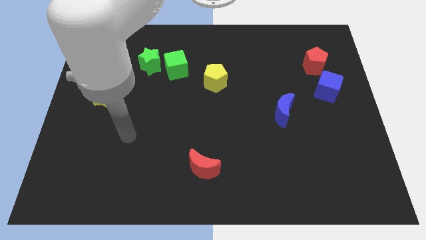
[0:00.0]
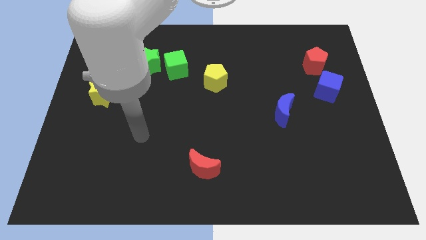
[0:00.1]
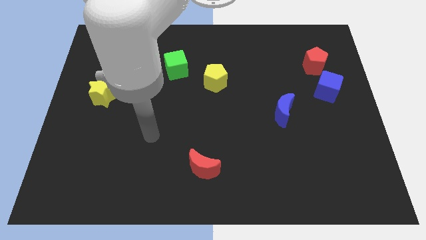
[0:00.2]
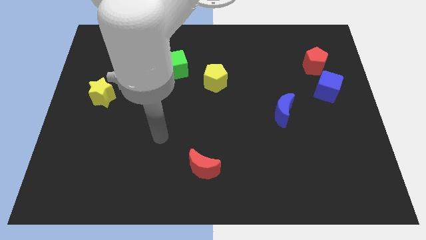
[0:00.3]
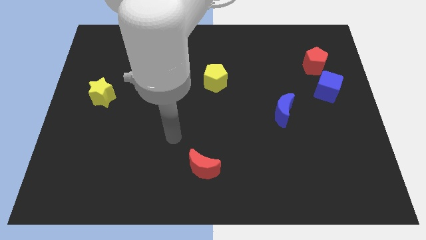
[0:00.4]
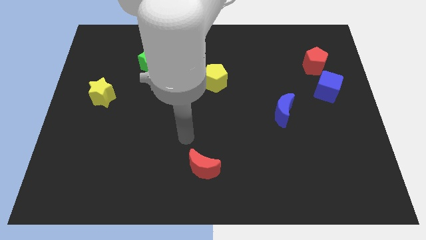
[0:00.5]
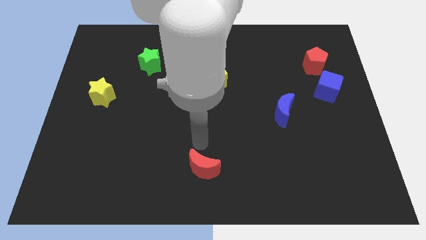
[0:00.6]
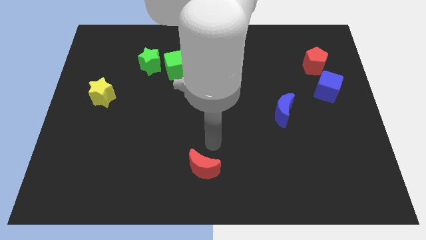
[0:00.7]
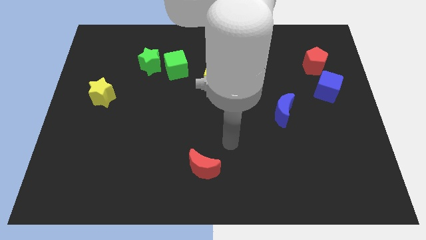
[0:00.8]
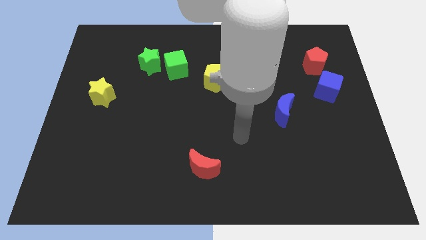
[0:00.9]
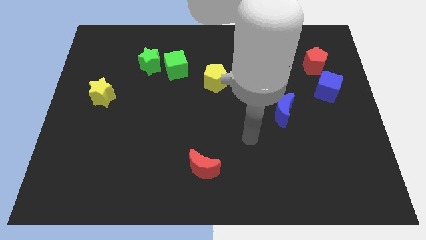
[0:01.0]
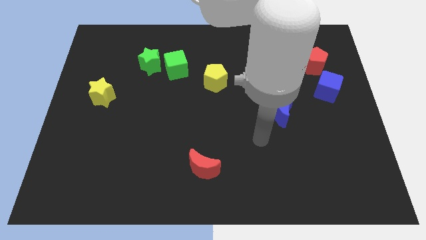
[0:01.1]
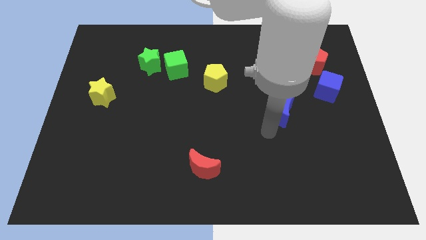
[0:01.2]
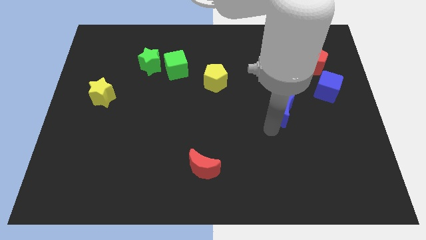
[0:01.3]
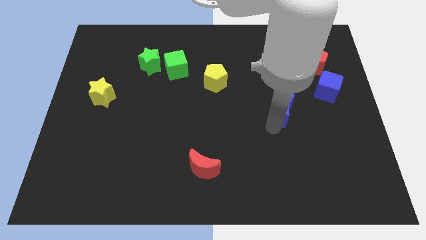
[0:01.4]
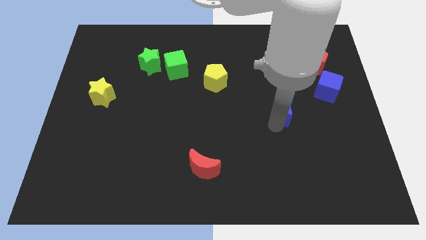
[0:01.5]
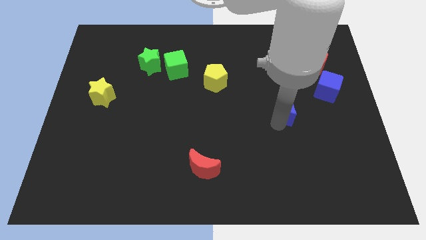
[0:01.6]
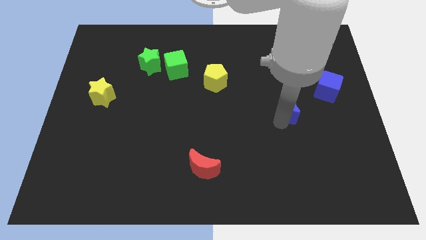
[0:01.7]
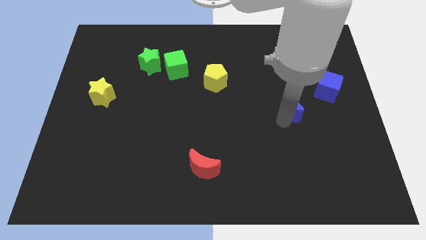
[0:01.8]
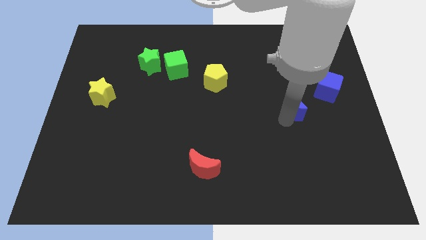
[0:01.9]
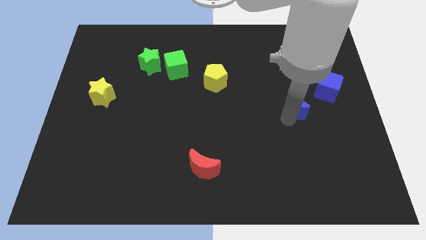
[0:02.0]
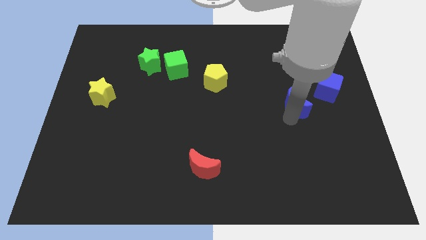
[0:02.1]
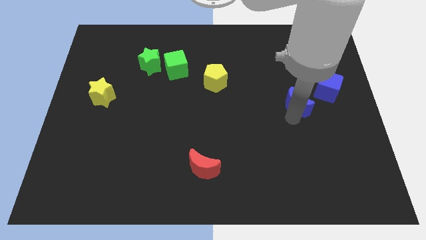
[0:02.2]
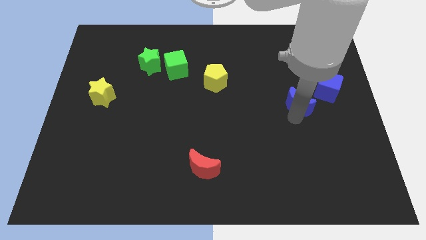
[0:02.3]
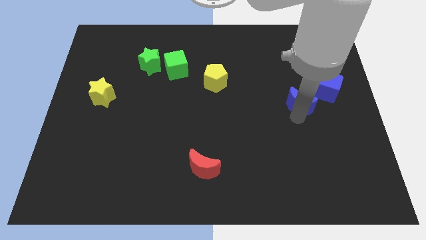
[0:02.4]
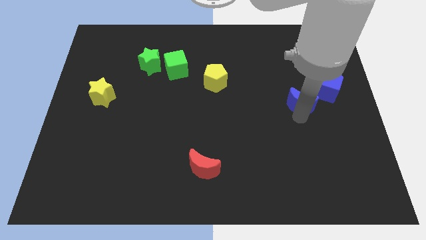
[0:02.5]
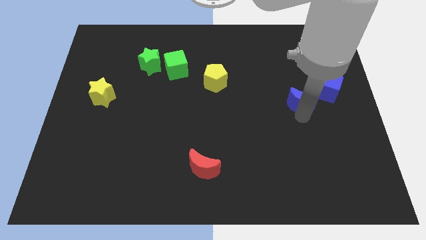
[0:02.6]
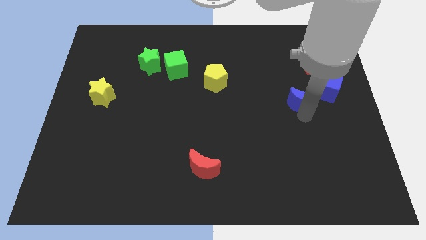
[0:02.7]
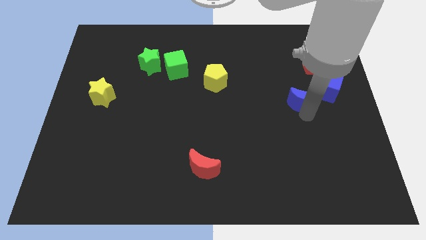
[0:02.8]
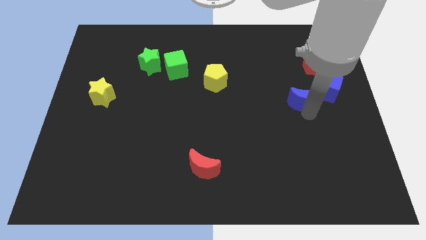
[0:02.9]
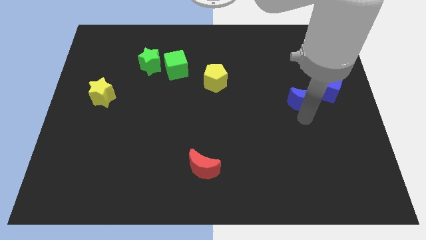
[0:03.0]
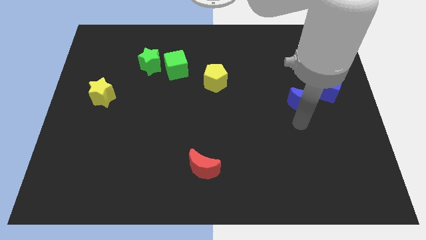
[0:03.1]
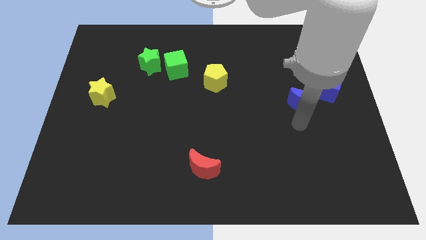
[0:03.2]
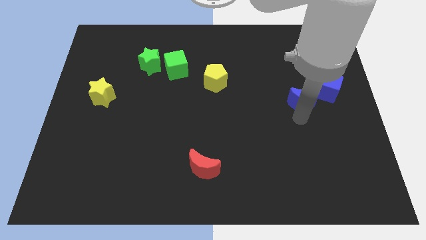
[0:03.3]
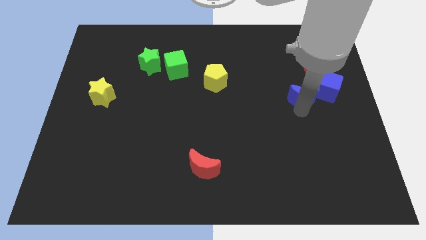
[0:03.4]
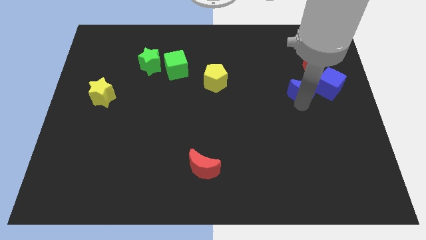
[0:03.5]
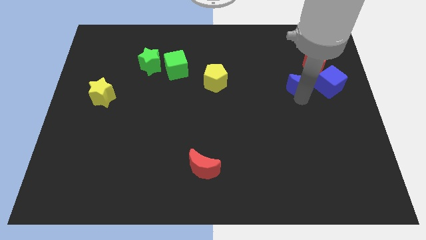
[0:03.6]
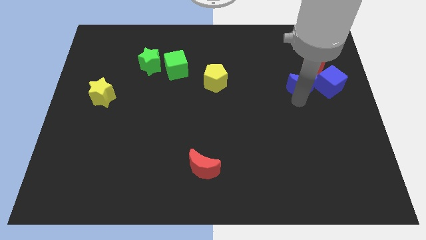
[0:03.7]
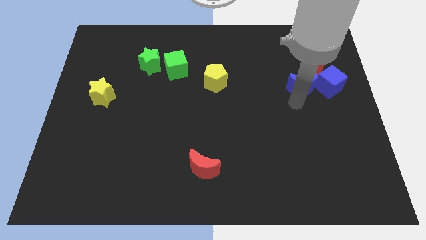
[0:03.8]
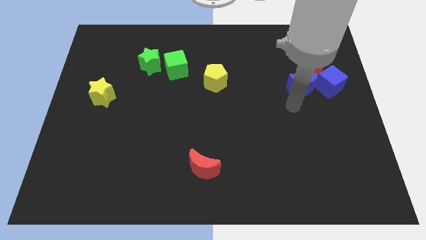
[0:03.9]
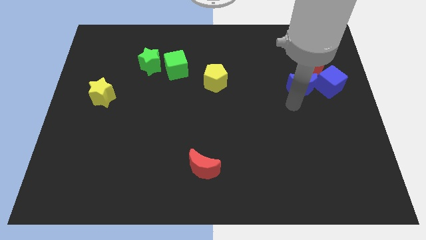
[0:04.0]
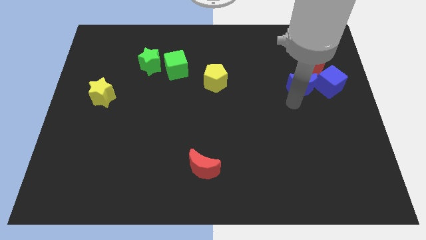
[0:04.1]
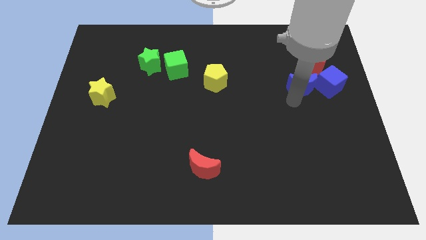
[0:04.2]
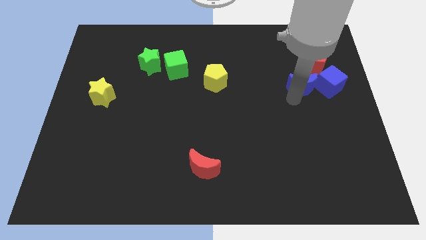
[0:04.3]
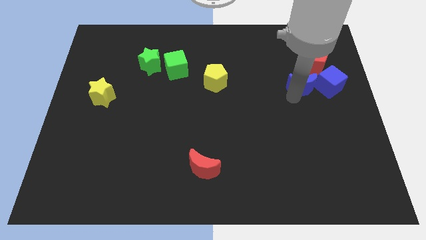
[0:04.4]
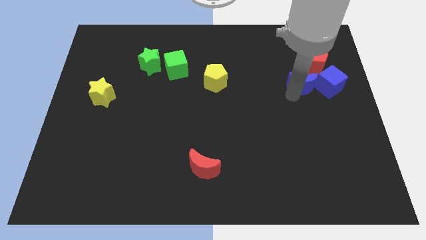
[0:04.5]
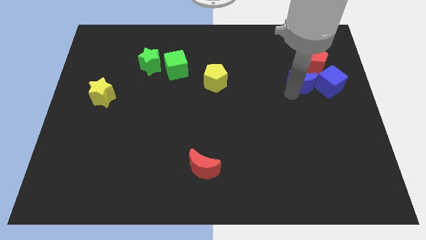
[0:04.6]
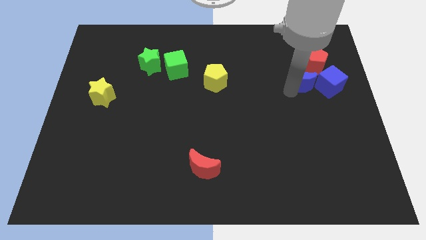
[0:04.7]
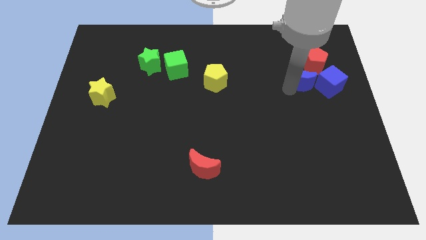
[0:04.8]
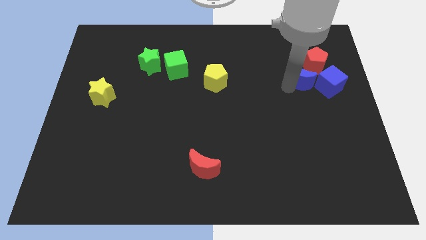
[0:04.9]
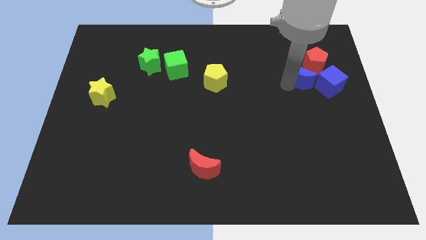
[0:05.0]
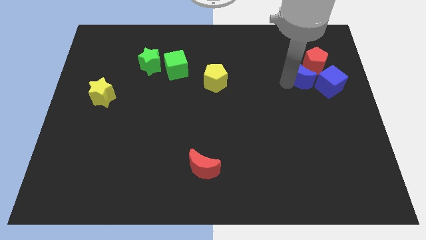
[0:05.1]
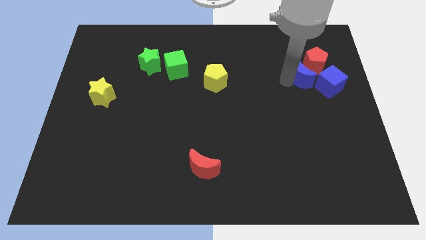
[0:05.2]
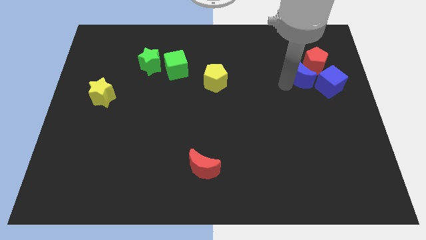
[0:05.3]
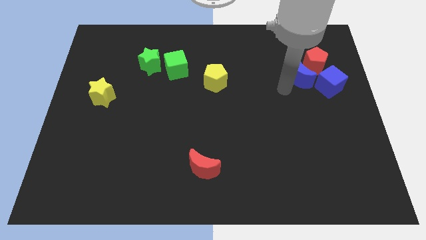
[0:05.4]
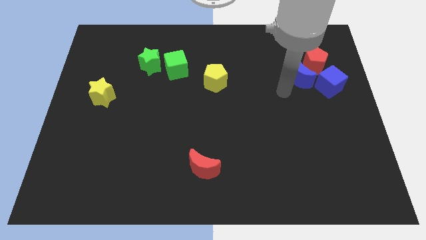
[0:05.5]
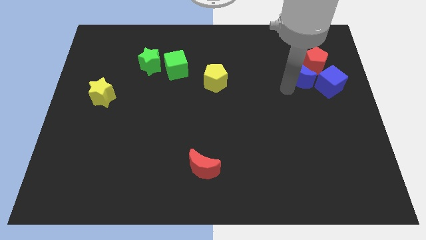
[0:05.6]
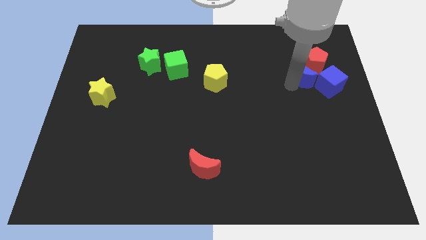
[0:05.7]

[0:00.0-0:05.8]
push the blue moon close to the red pentagon

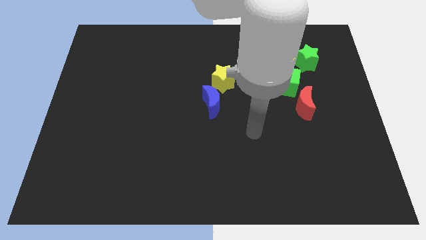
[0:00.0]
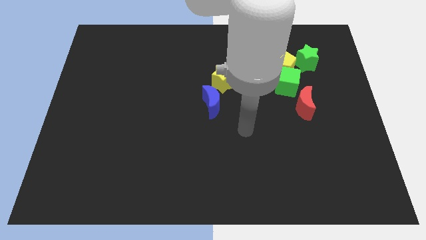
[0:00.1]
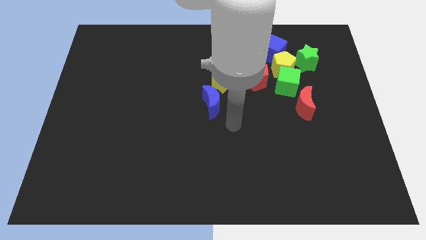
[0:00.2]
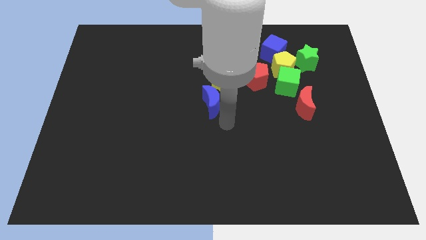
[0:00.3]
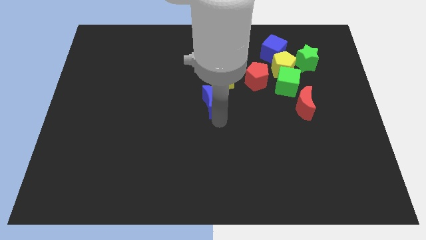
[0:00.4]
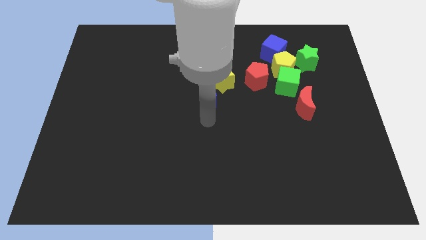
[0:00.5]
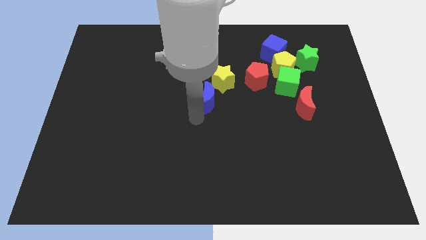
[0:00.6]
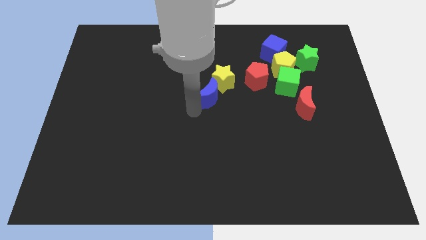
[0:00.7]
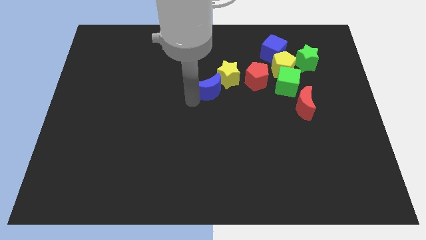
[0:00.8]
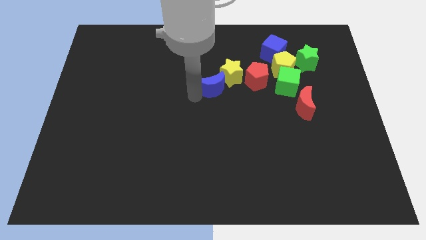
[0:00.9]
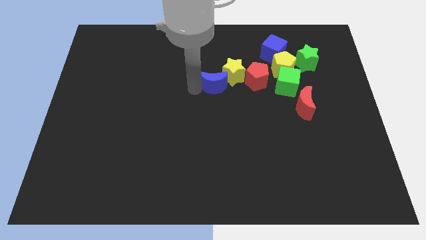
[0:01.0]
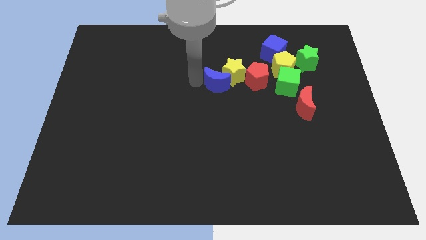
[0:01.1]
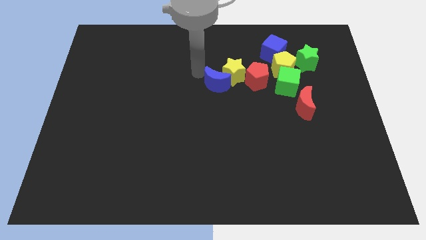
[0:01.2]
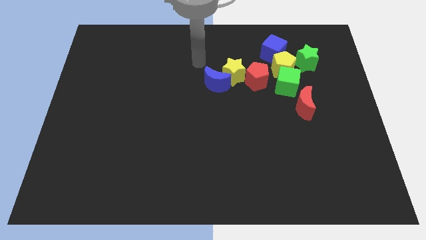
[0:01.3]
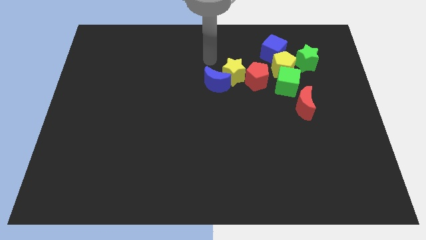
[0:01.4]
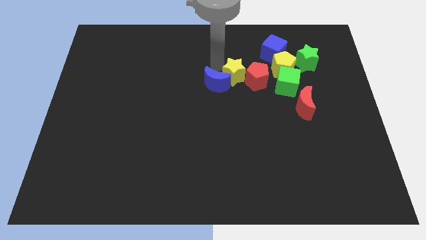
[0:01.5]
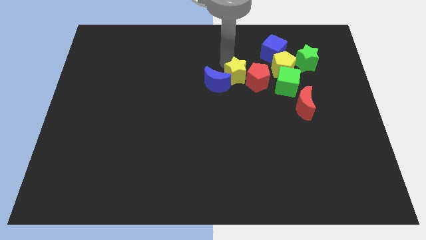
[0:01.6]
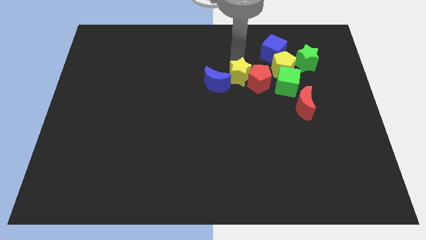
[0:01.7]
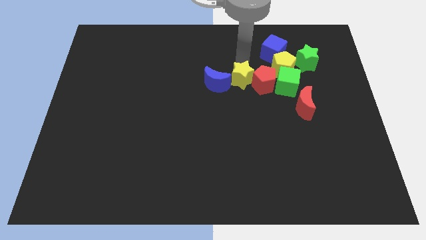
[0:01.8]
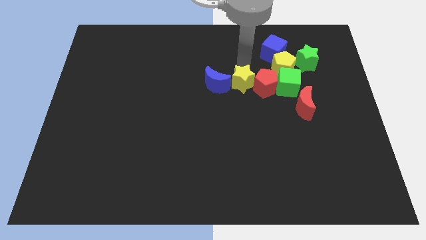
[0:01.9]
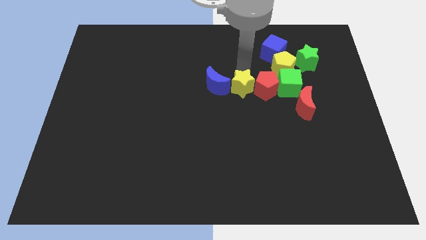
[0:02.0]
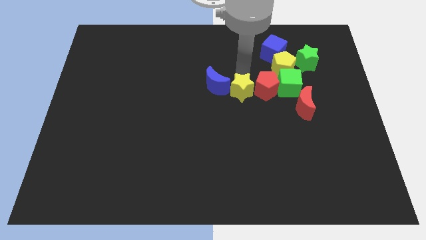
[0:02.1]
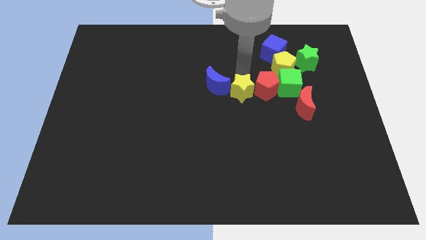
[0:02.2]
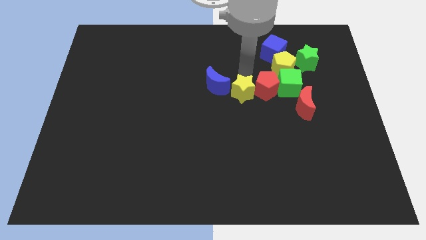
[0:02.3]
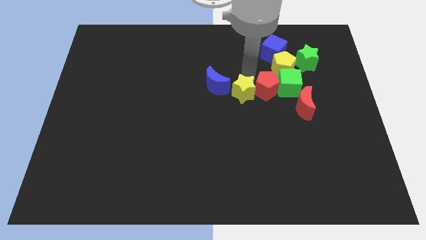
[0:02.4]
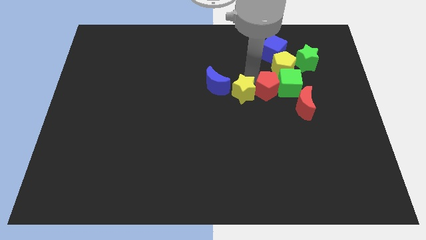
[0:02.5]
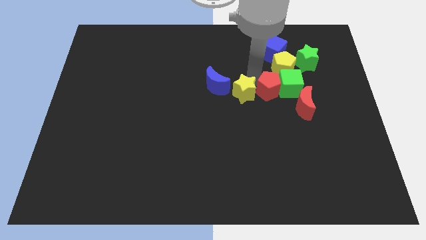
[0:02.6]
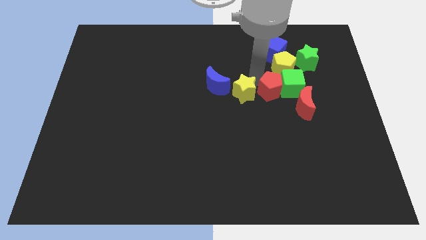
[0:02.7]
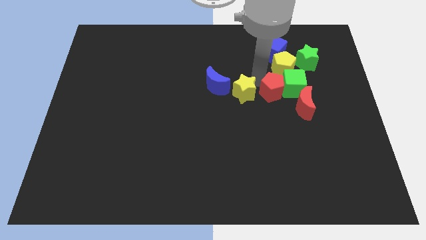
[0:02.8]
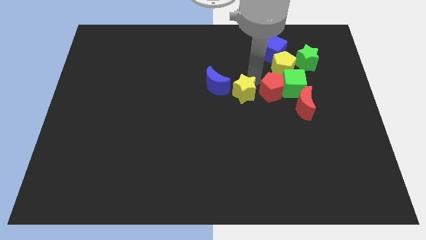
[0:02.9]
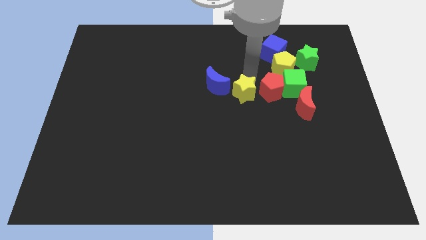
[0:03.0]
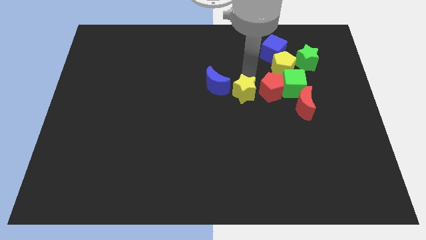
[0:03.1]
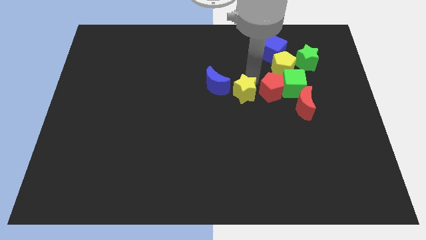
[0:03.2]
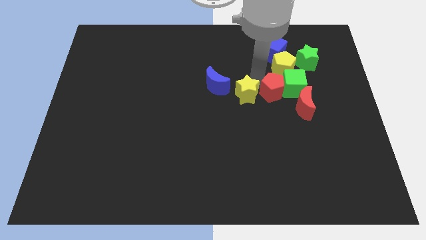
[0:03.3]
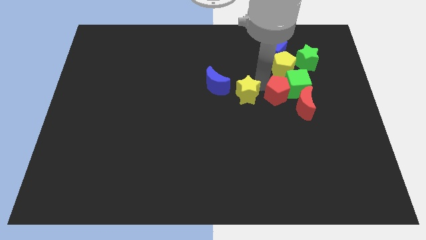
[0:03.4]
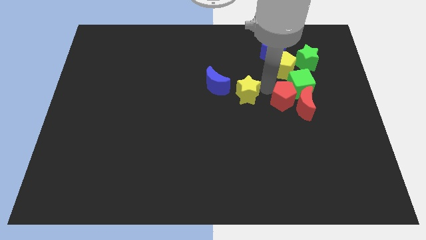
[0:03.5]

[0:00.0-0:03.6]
slide the red pentagon towards the red moon
